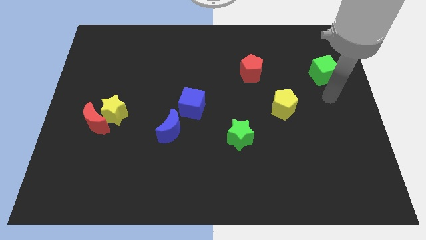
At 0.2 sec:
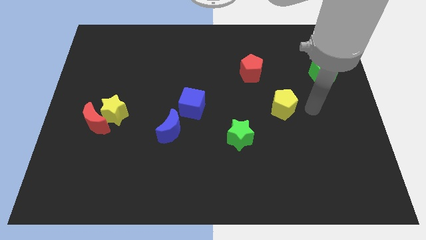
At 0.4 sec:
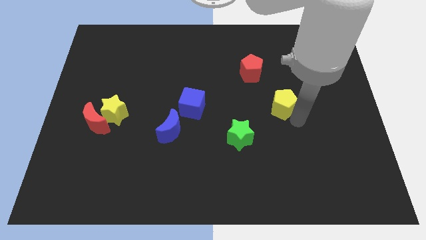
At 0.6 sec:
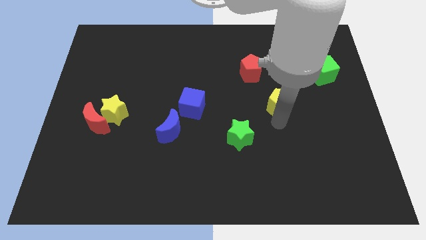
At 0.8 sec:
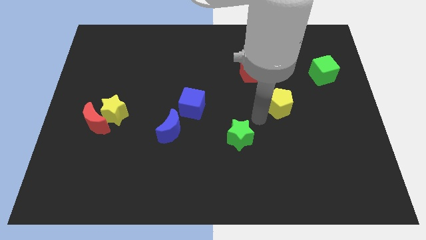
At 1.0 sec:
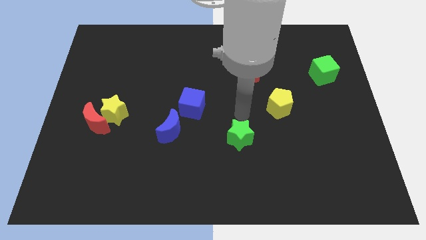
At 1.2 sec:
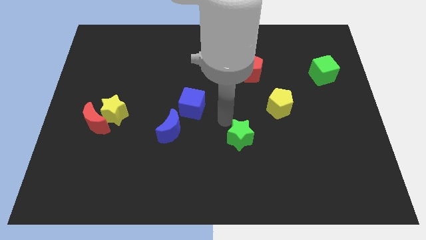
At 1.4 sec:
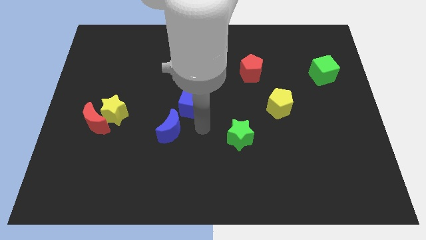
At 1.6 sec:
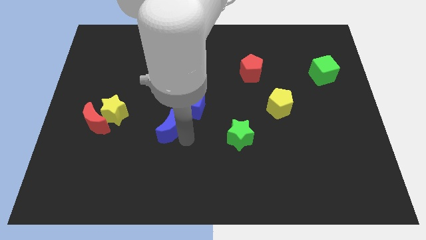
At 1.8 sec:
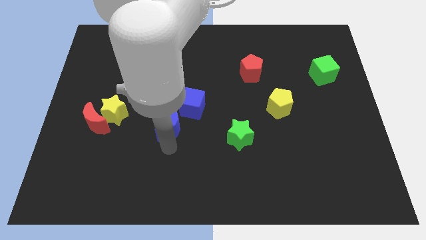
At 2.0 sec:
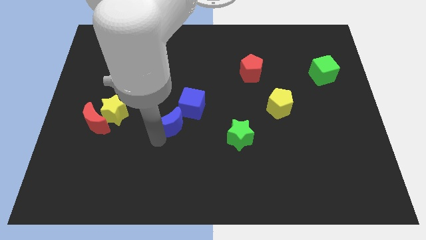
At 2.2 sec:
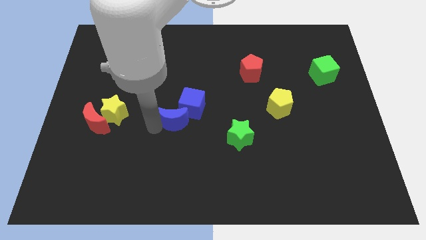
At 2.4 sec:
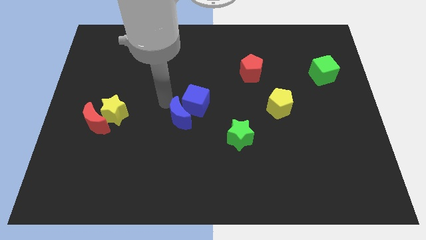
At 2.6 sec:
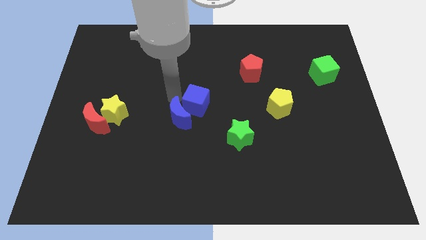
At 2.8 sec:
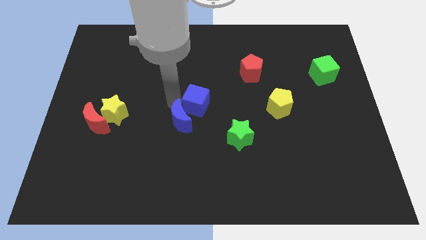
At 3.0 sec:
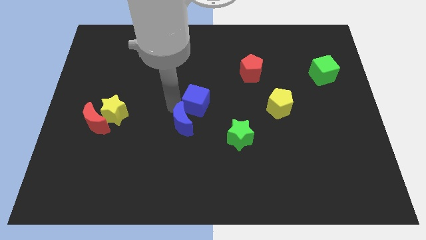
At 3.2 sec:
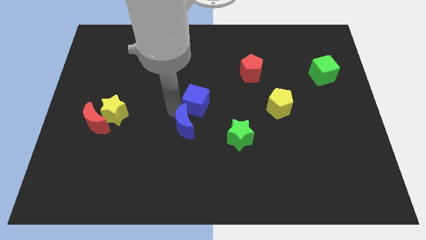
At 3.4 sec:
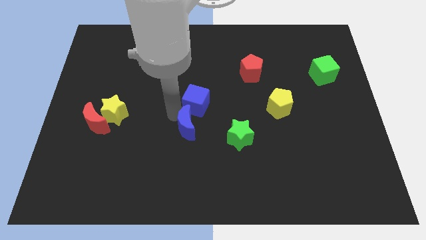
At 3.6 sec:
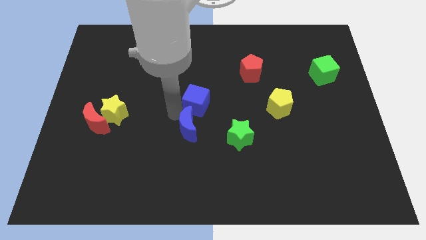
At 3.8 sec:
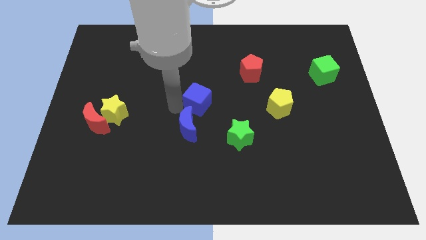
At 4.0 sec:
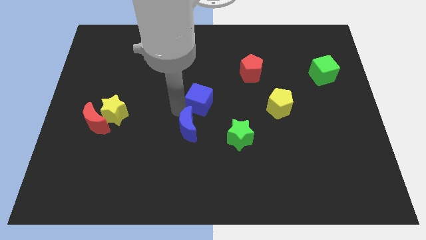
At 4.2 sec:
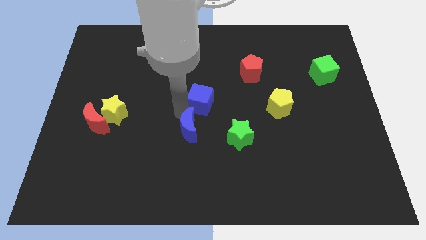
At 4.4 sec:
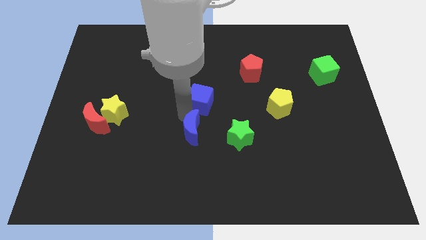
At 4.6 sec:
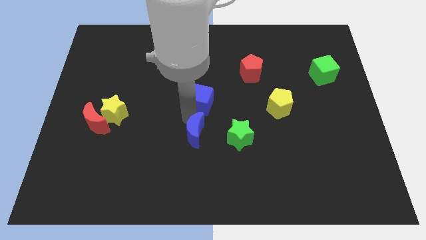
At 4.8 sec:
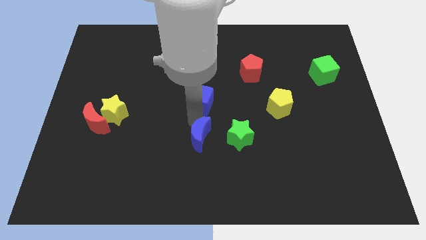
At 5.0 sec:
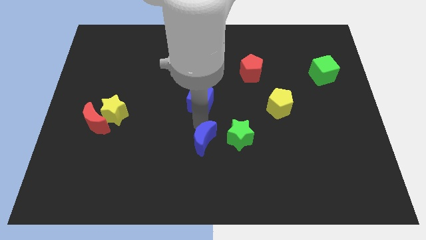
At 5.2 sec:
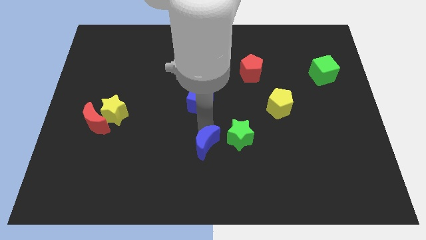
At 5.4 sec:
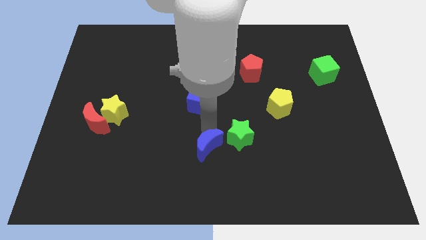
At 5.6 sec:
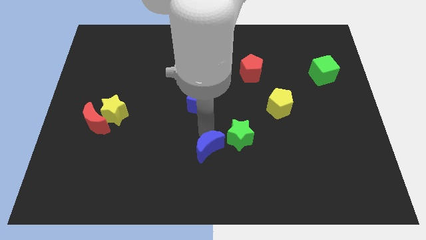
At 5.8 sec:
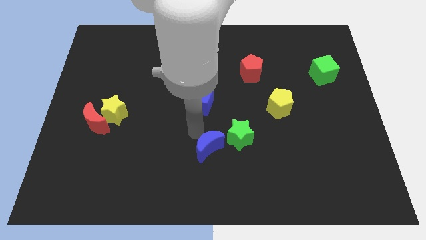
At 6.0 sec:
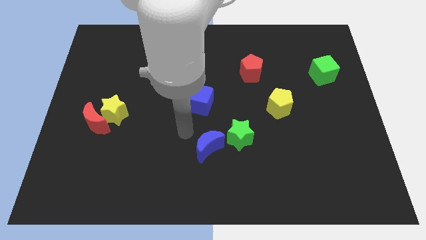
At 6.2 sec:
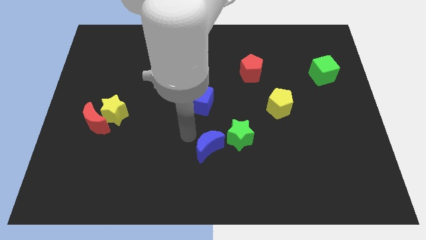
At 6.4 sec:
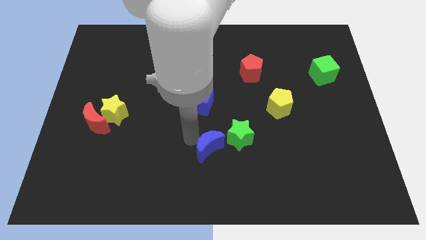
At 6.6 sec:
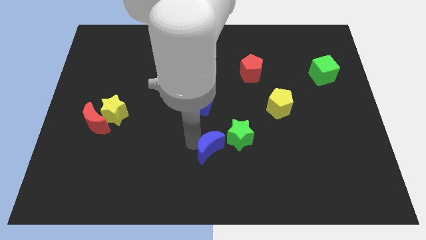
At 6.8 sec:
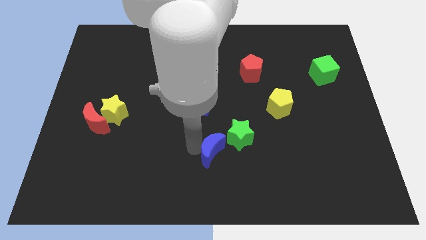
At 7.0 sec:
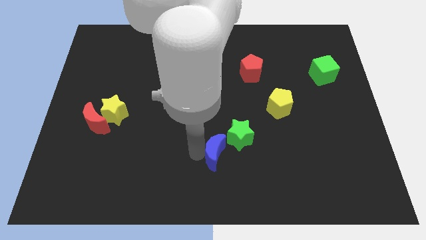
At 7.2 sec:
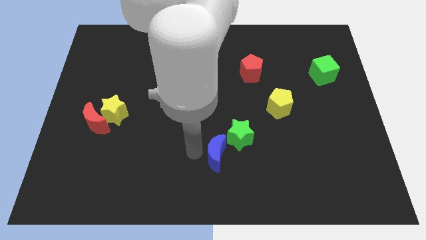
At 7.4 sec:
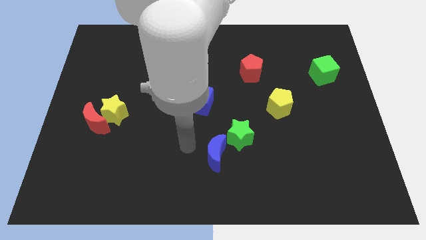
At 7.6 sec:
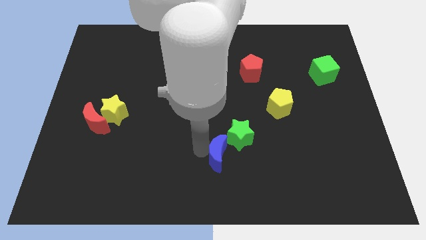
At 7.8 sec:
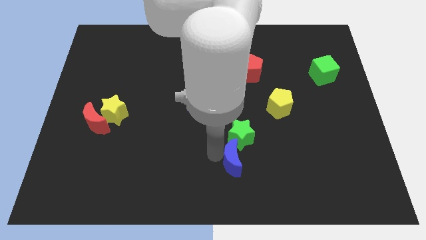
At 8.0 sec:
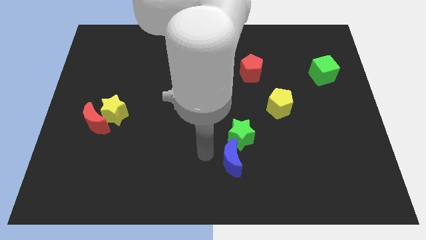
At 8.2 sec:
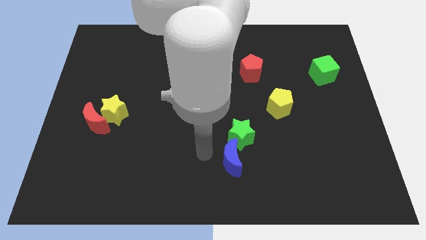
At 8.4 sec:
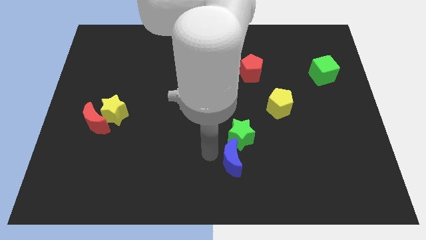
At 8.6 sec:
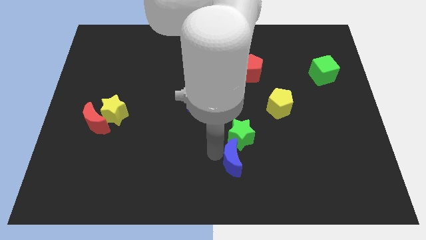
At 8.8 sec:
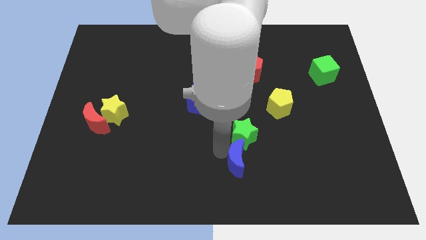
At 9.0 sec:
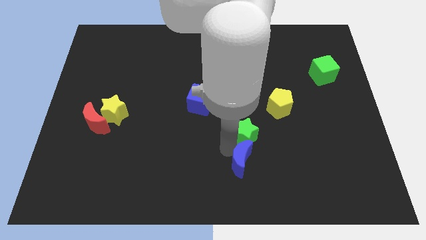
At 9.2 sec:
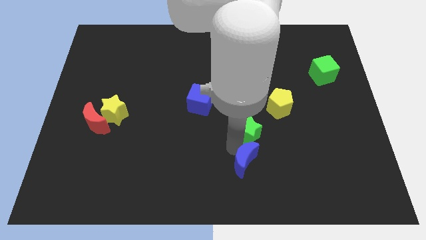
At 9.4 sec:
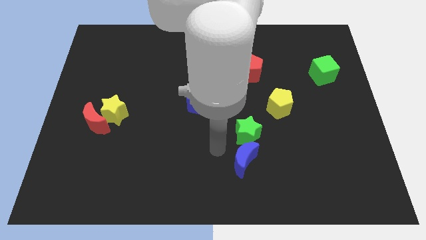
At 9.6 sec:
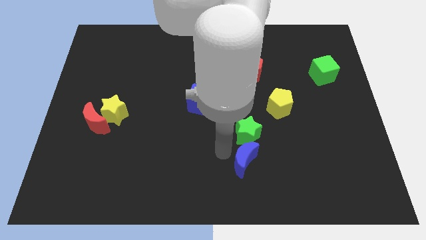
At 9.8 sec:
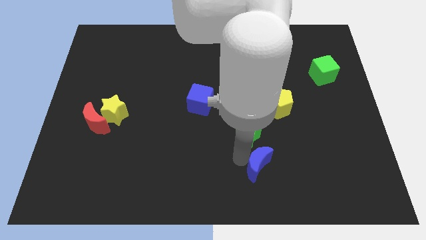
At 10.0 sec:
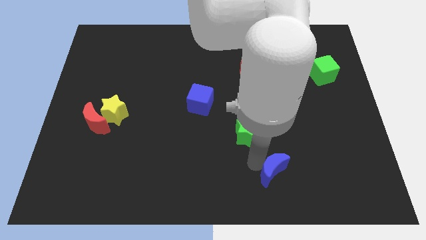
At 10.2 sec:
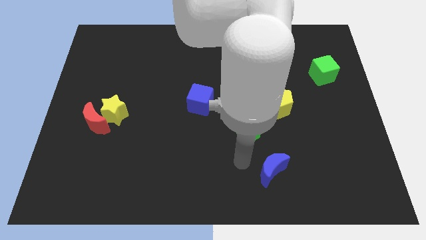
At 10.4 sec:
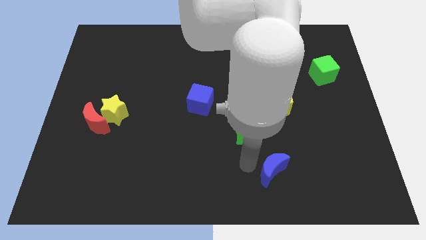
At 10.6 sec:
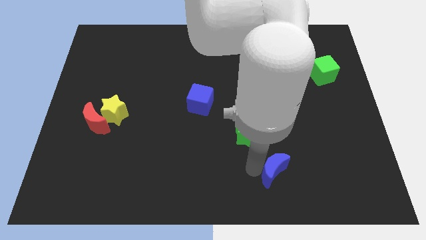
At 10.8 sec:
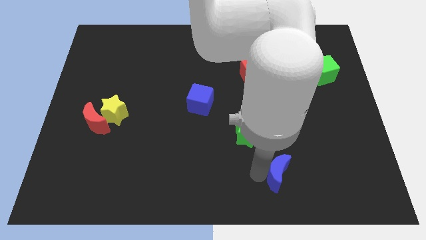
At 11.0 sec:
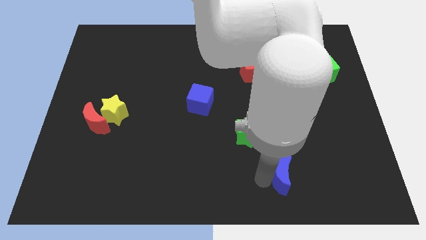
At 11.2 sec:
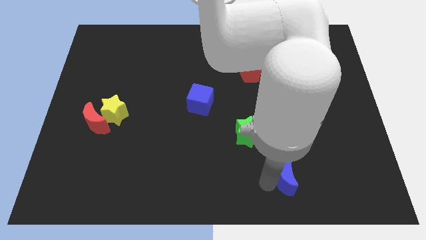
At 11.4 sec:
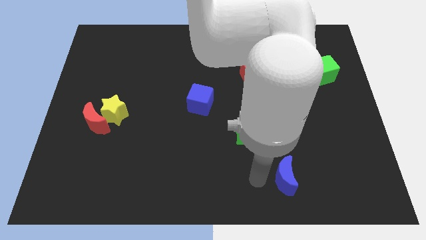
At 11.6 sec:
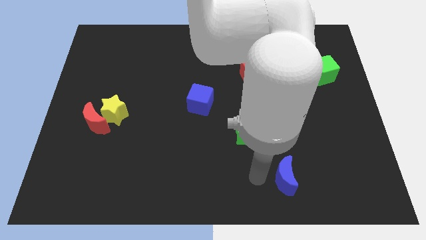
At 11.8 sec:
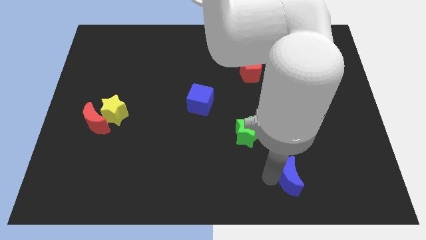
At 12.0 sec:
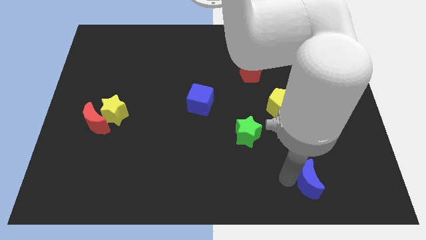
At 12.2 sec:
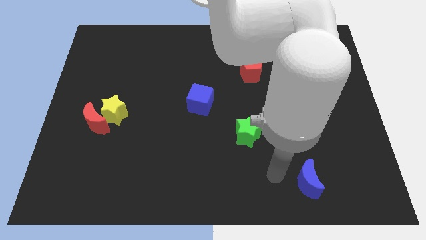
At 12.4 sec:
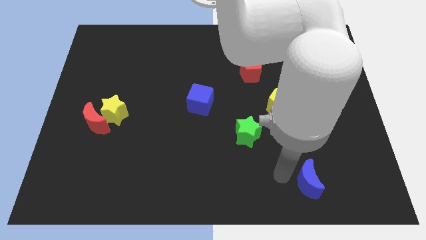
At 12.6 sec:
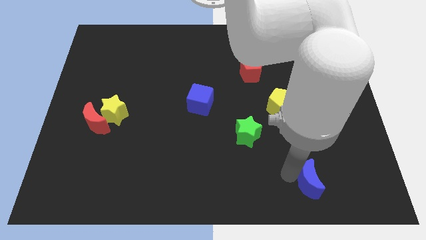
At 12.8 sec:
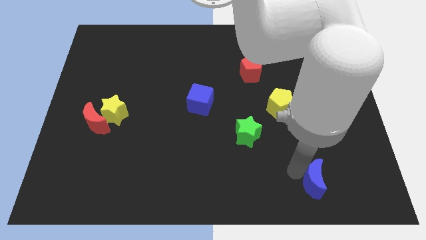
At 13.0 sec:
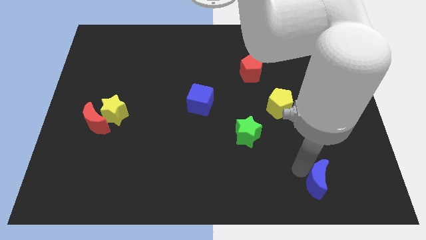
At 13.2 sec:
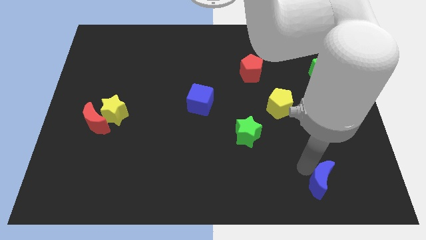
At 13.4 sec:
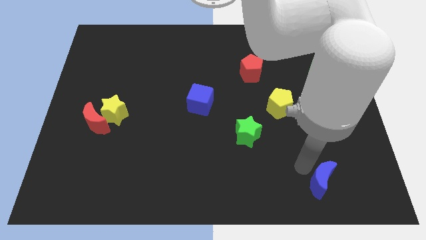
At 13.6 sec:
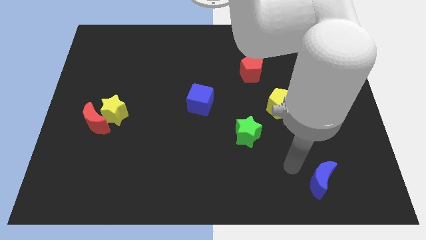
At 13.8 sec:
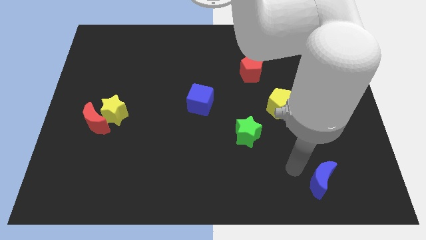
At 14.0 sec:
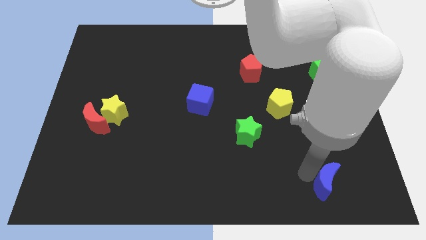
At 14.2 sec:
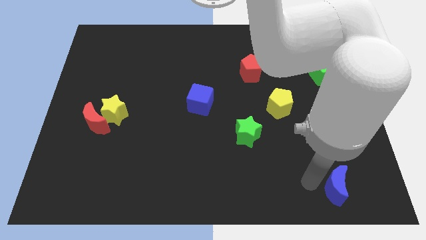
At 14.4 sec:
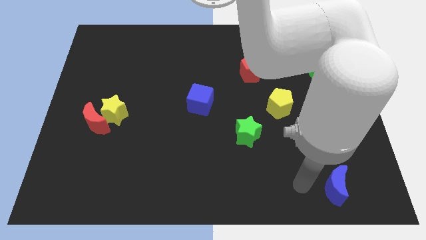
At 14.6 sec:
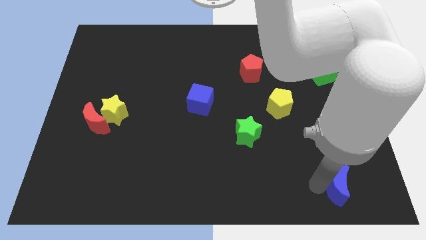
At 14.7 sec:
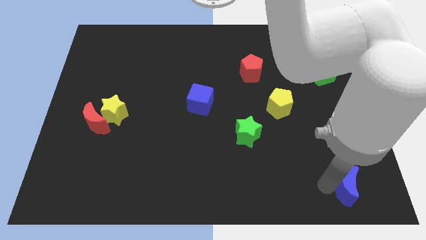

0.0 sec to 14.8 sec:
slide the blue moon to the bottom right
